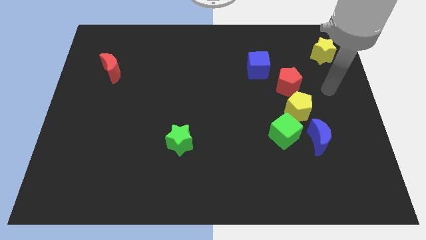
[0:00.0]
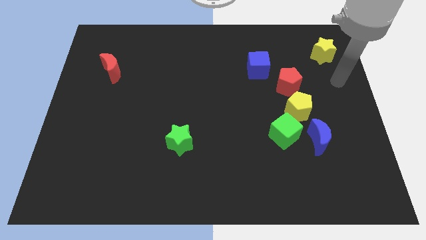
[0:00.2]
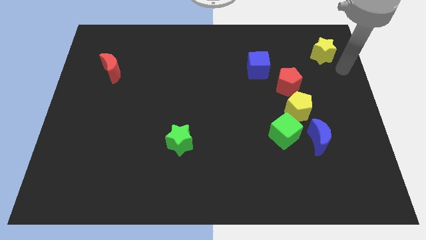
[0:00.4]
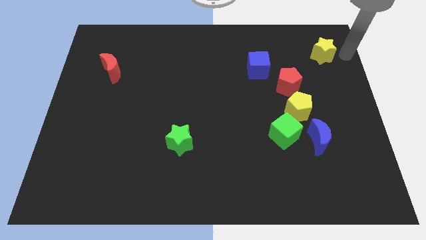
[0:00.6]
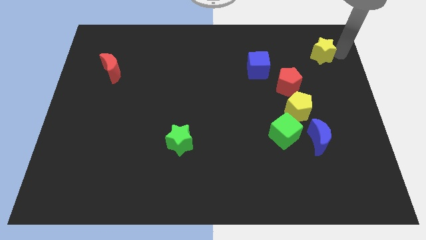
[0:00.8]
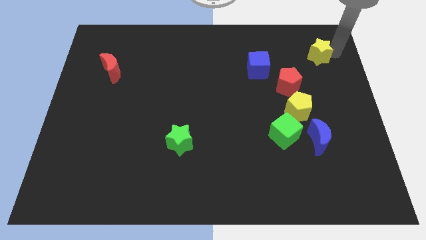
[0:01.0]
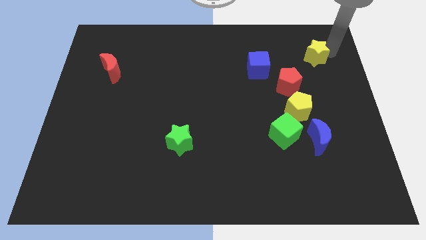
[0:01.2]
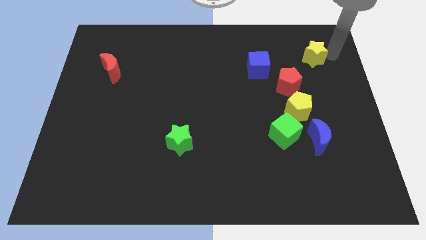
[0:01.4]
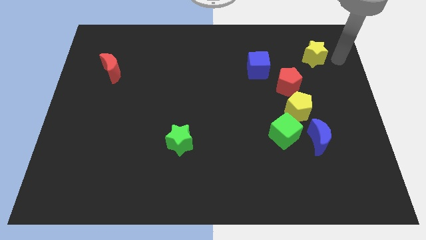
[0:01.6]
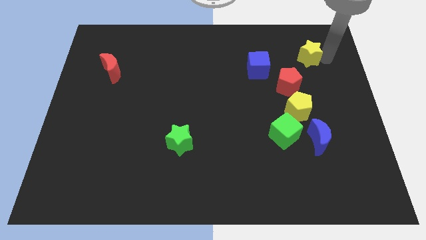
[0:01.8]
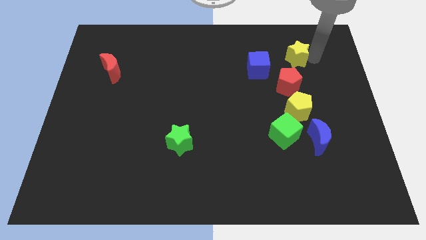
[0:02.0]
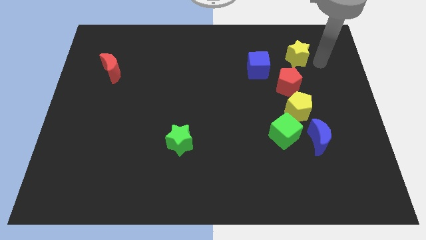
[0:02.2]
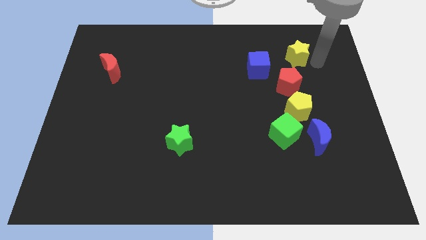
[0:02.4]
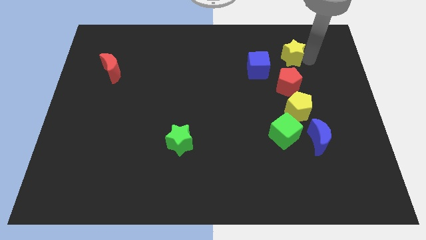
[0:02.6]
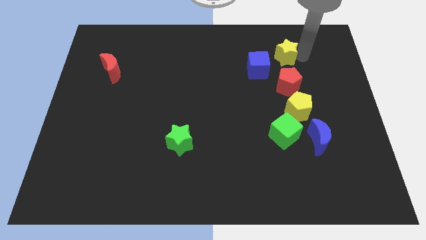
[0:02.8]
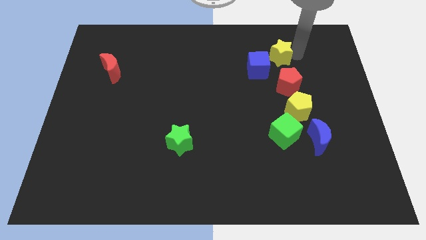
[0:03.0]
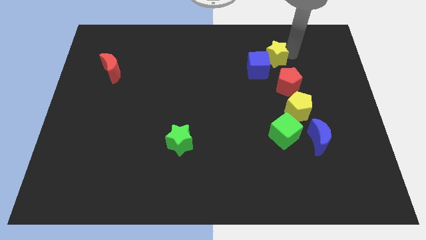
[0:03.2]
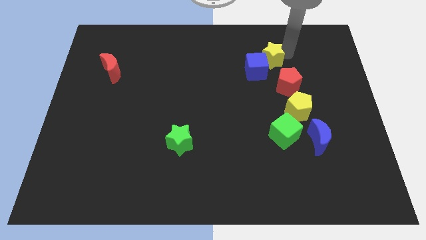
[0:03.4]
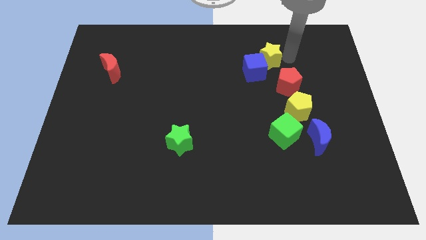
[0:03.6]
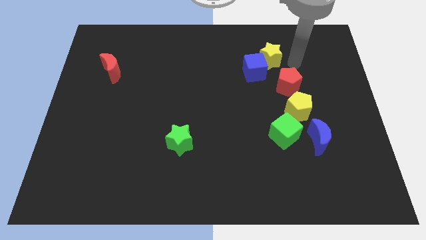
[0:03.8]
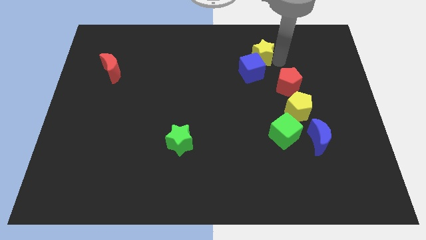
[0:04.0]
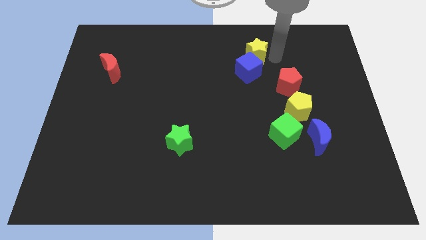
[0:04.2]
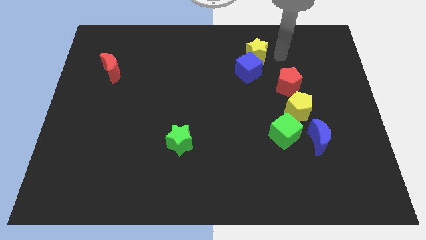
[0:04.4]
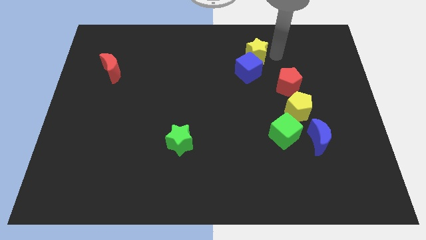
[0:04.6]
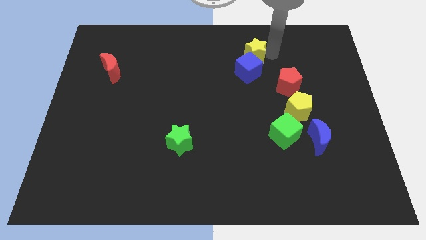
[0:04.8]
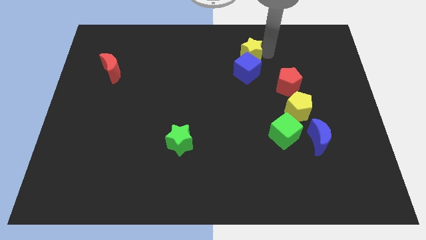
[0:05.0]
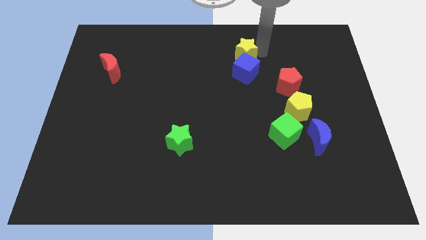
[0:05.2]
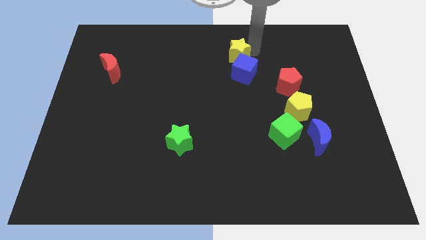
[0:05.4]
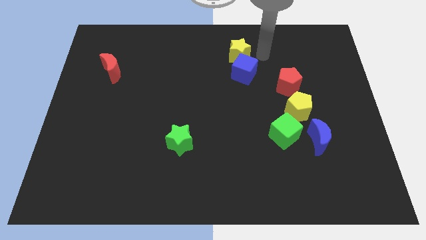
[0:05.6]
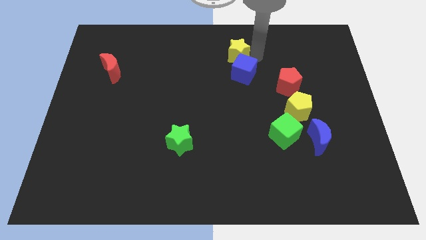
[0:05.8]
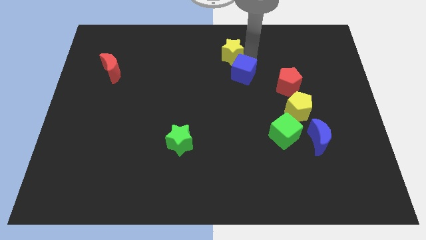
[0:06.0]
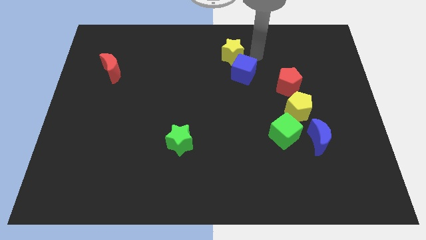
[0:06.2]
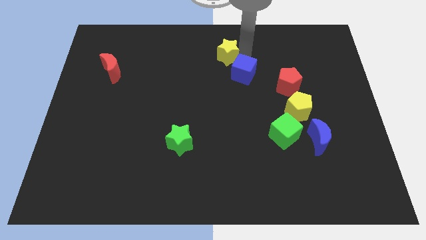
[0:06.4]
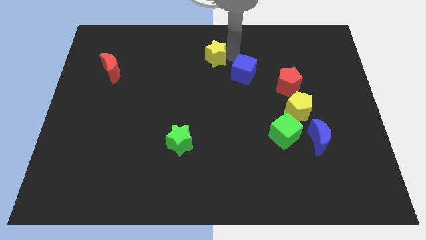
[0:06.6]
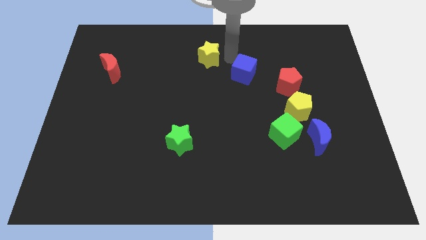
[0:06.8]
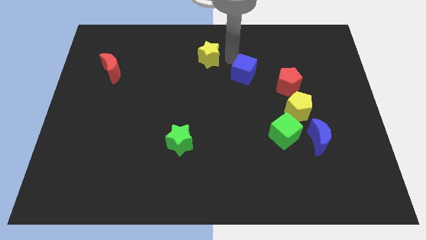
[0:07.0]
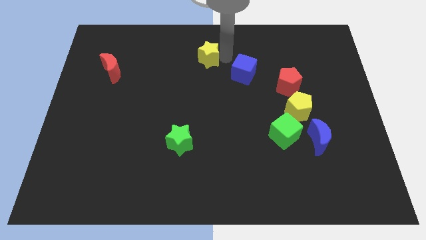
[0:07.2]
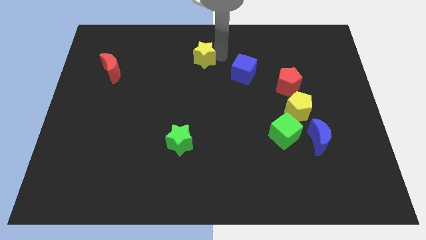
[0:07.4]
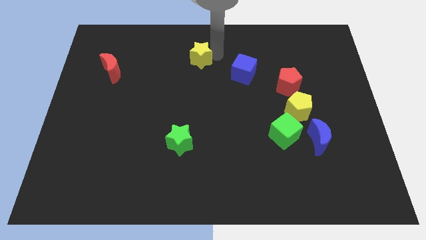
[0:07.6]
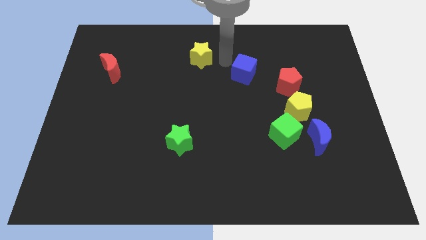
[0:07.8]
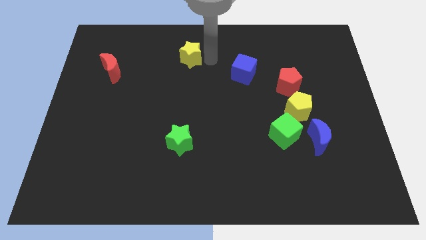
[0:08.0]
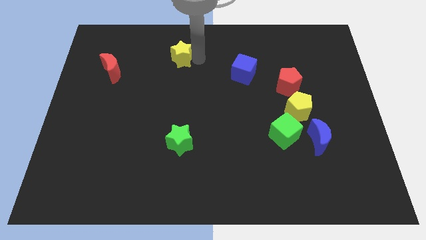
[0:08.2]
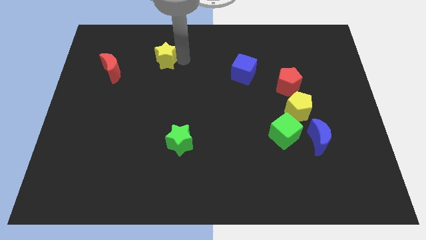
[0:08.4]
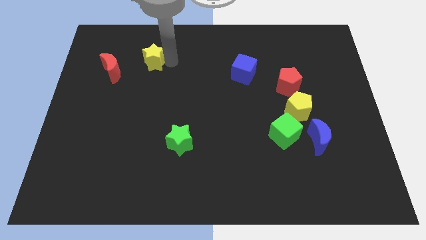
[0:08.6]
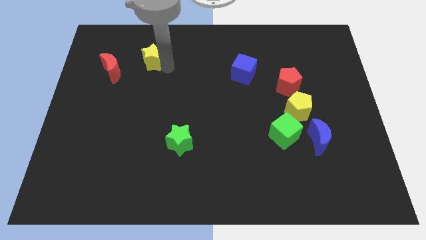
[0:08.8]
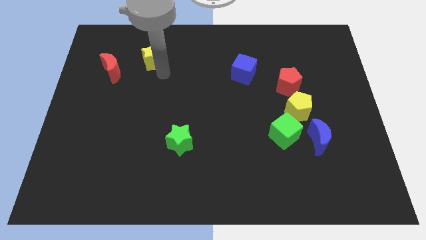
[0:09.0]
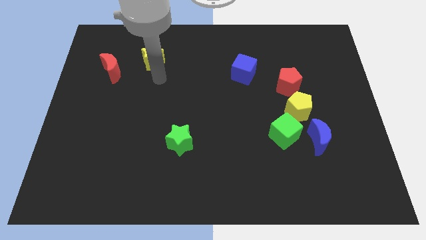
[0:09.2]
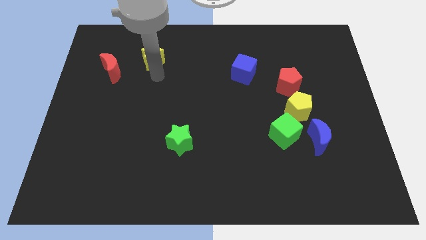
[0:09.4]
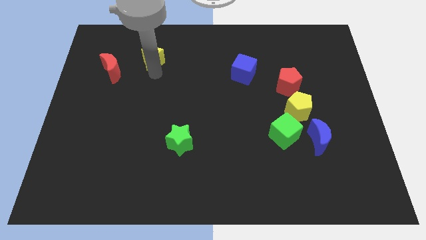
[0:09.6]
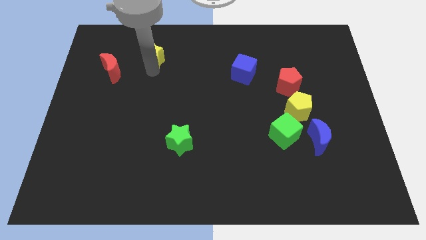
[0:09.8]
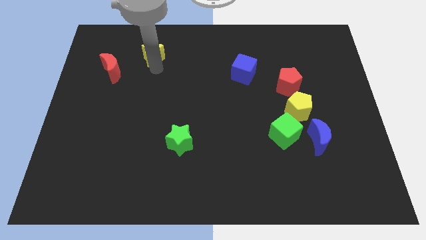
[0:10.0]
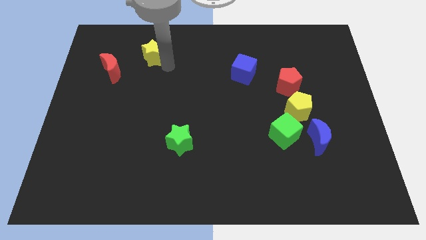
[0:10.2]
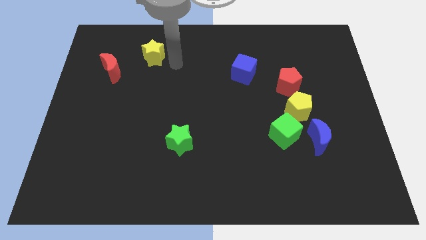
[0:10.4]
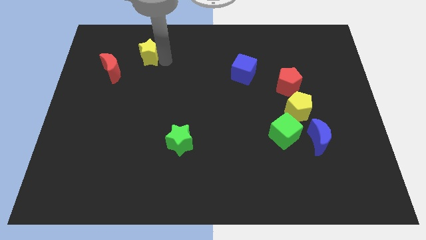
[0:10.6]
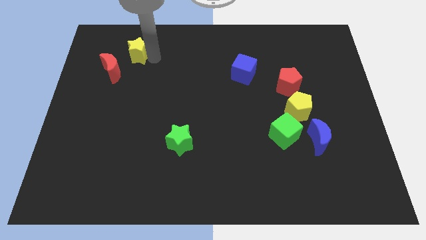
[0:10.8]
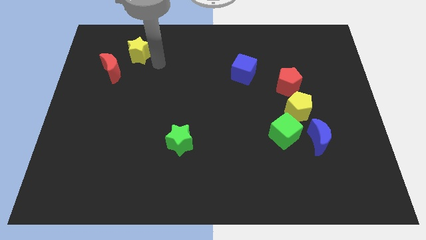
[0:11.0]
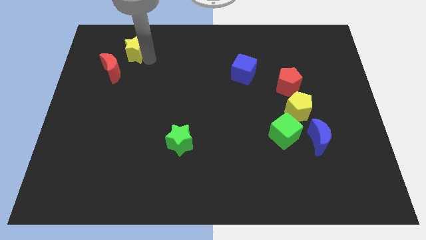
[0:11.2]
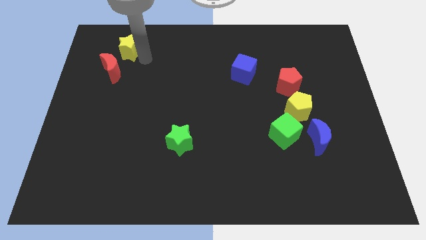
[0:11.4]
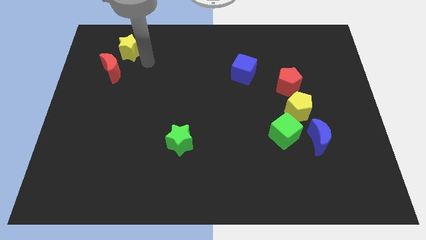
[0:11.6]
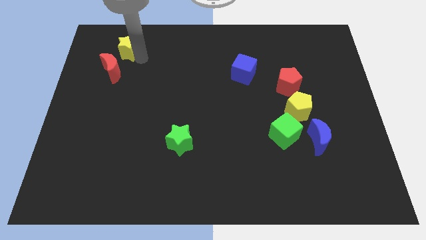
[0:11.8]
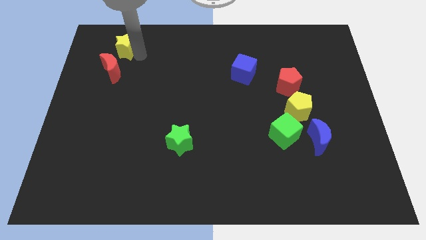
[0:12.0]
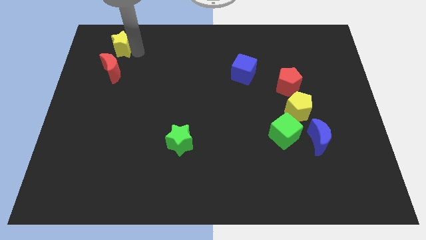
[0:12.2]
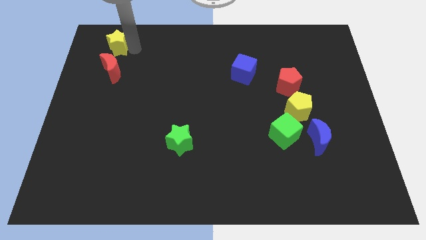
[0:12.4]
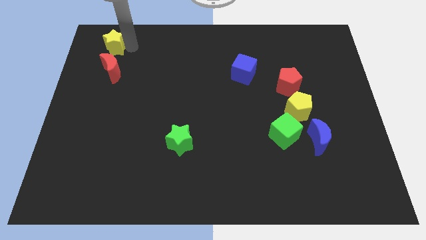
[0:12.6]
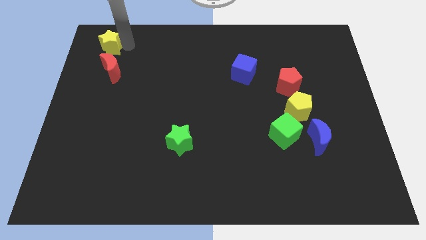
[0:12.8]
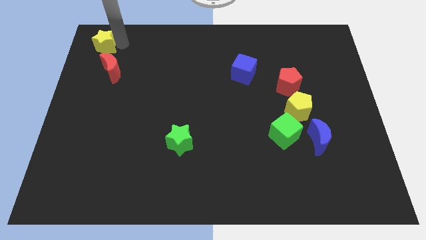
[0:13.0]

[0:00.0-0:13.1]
push the yellow star to the upper left corner
